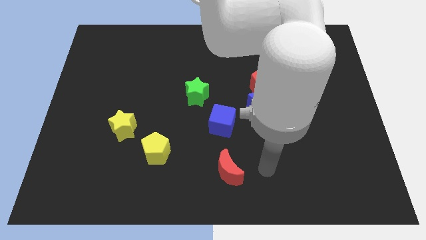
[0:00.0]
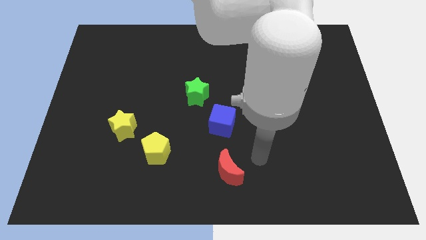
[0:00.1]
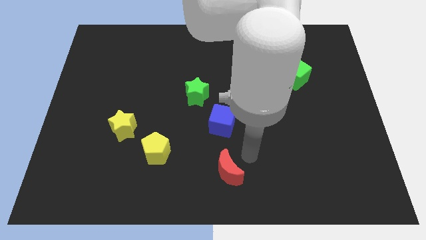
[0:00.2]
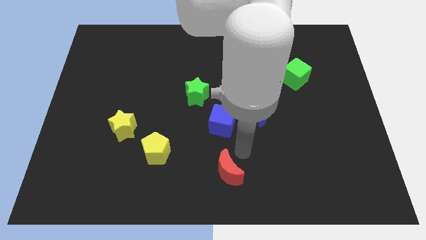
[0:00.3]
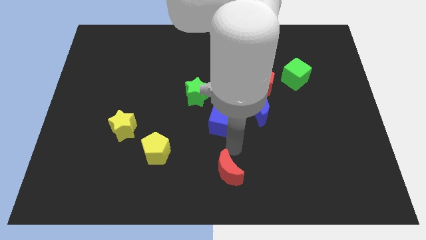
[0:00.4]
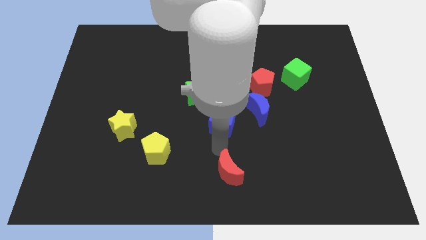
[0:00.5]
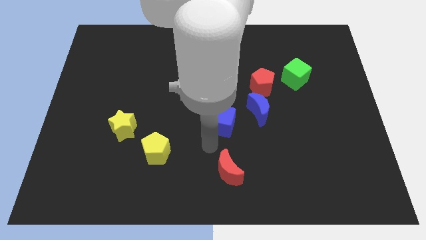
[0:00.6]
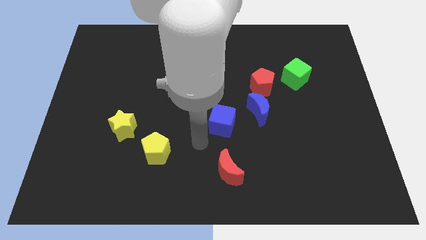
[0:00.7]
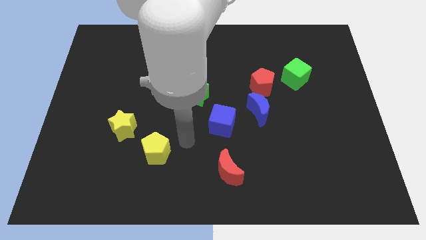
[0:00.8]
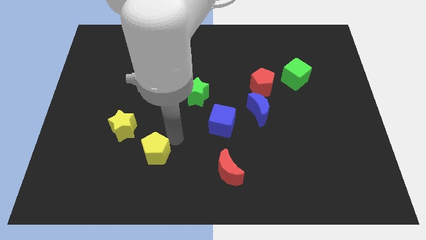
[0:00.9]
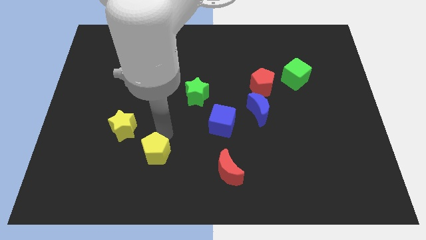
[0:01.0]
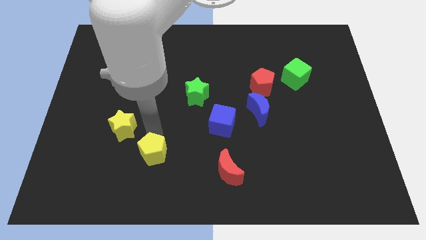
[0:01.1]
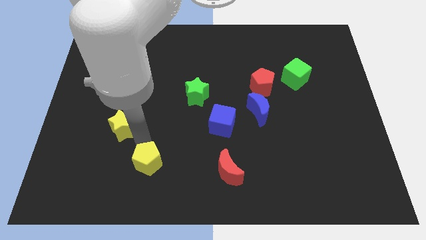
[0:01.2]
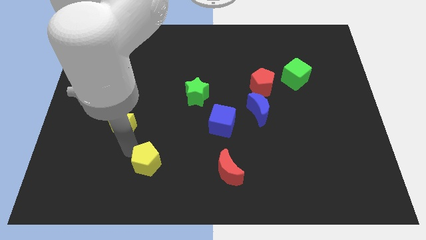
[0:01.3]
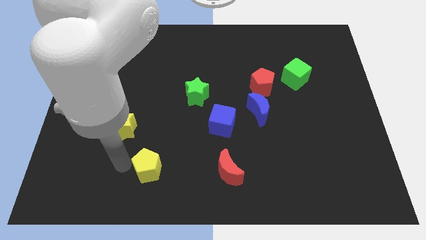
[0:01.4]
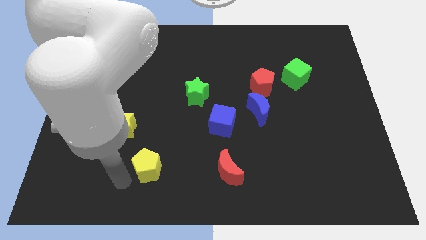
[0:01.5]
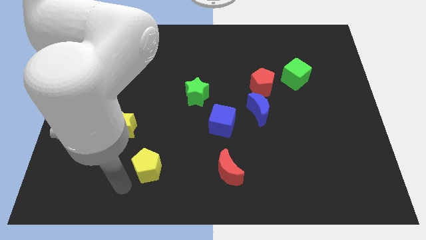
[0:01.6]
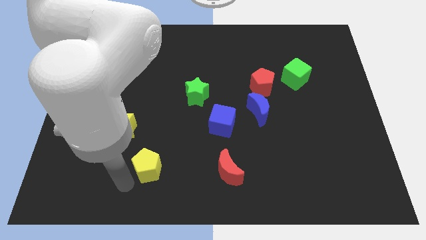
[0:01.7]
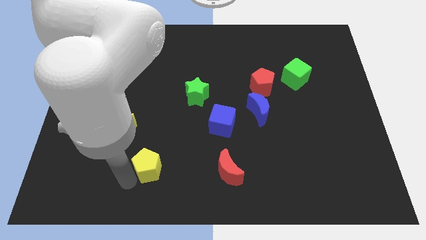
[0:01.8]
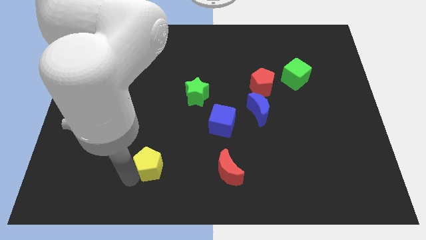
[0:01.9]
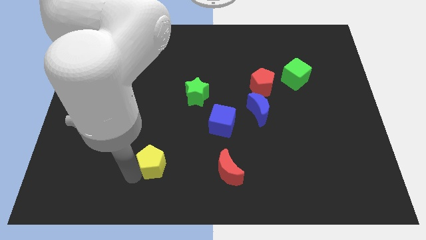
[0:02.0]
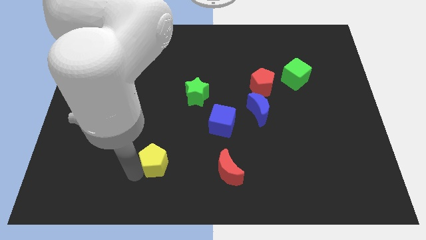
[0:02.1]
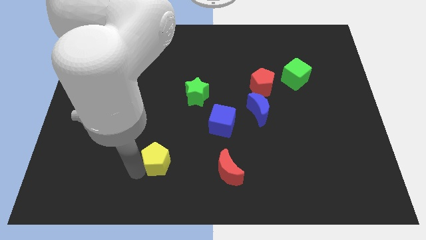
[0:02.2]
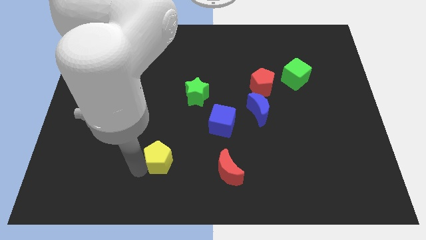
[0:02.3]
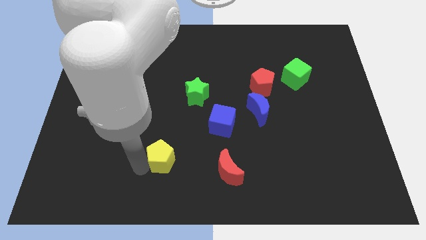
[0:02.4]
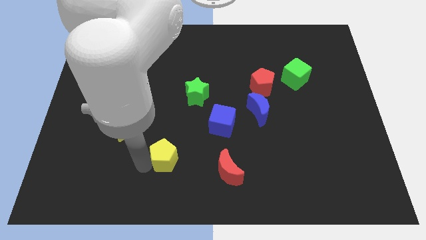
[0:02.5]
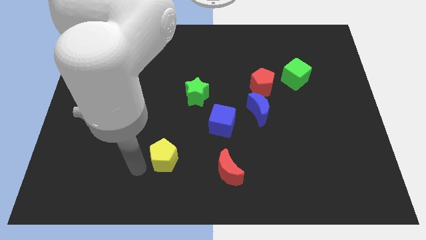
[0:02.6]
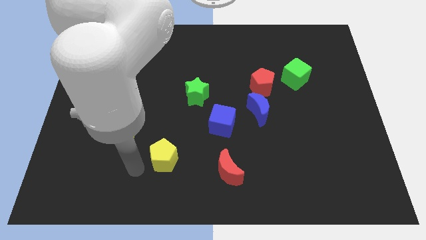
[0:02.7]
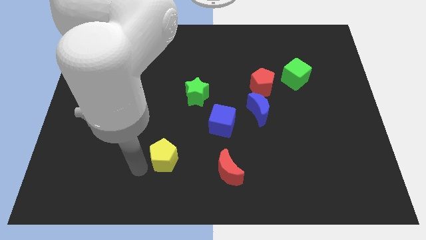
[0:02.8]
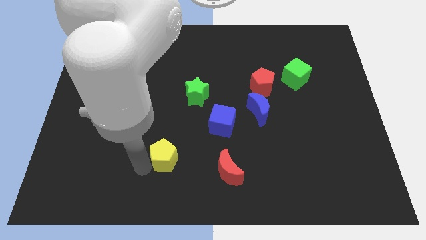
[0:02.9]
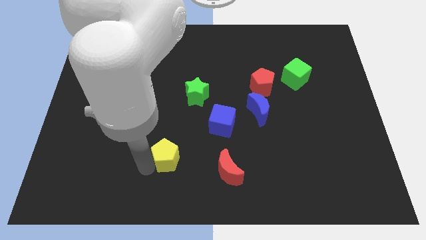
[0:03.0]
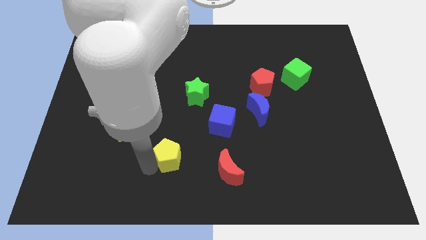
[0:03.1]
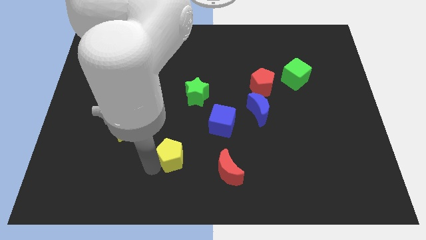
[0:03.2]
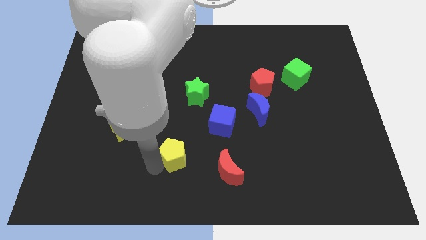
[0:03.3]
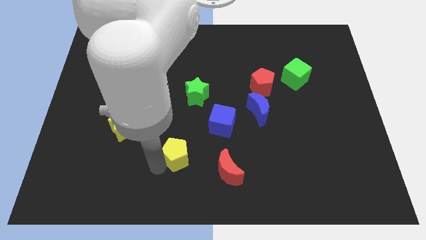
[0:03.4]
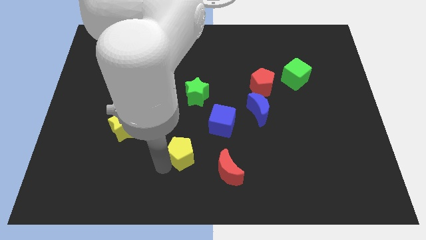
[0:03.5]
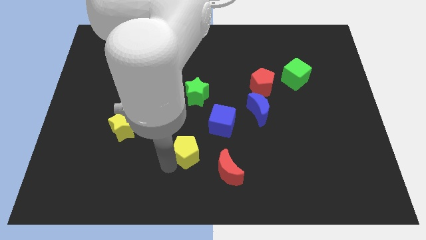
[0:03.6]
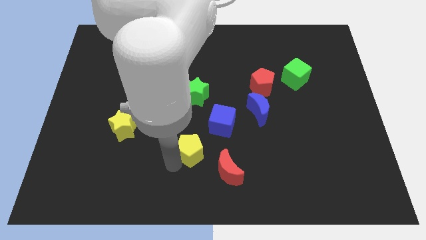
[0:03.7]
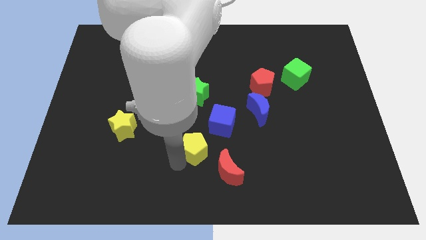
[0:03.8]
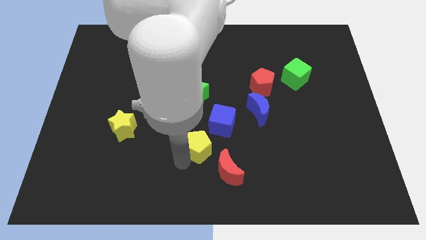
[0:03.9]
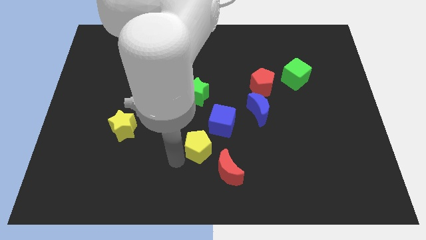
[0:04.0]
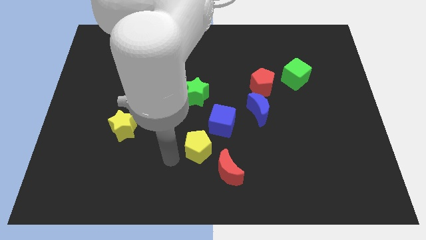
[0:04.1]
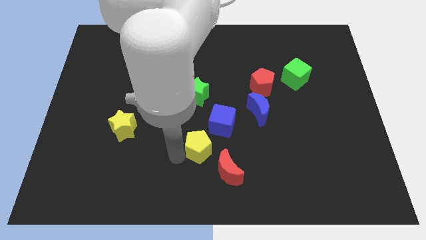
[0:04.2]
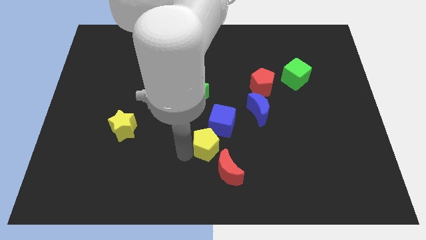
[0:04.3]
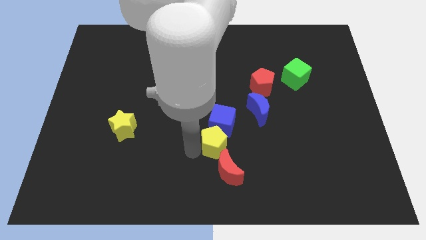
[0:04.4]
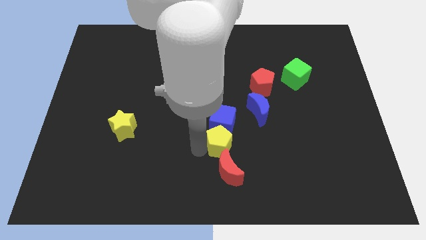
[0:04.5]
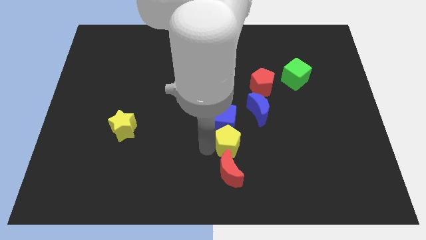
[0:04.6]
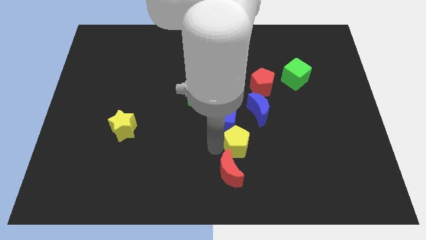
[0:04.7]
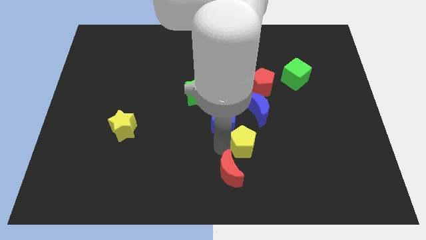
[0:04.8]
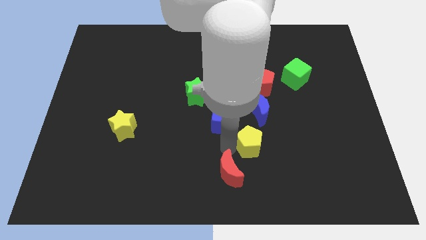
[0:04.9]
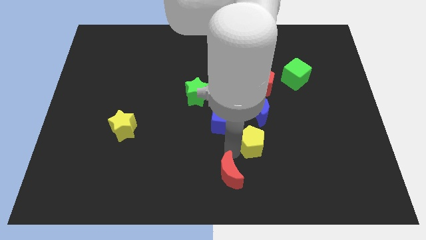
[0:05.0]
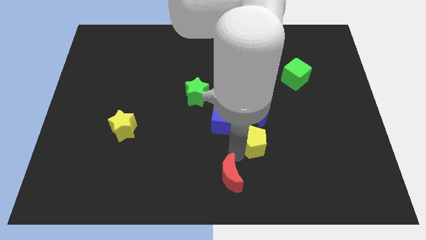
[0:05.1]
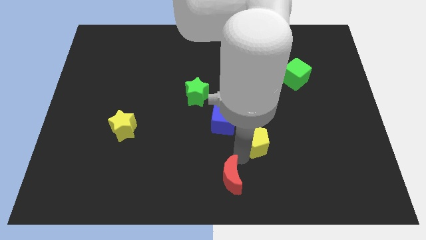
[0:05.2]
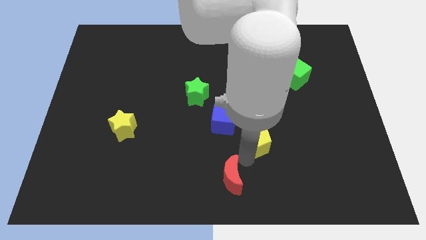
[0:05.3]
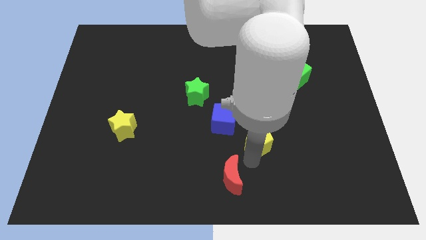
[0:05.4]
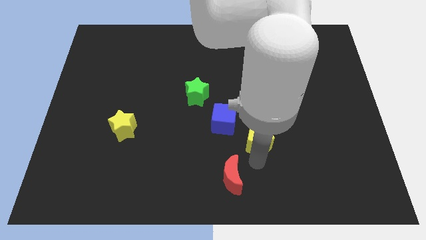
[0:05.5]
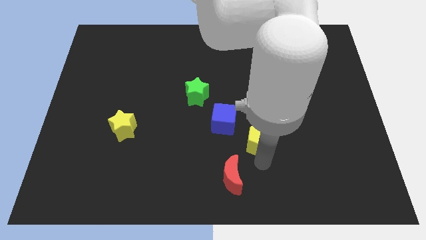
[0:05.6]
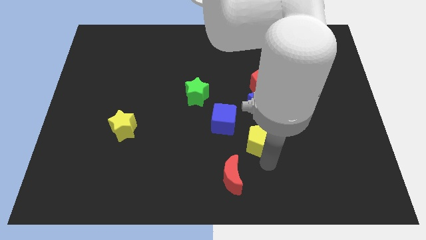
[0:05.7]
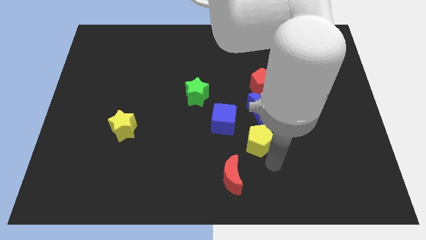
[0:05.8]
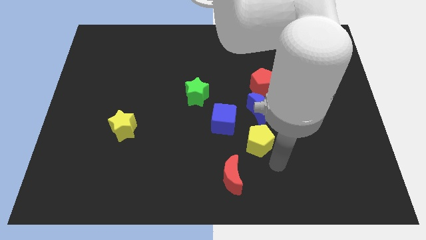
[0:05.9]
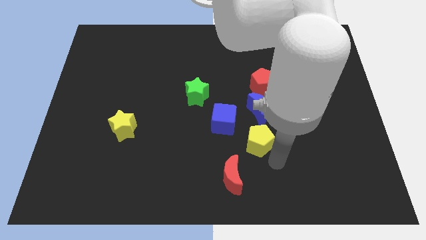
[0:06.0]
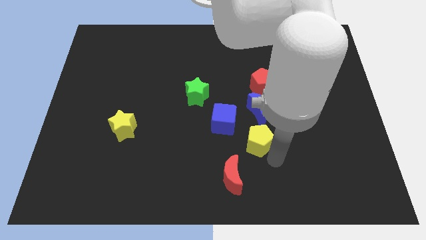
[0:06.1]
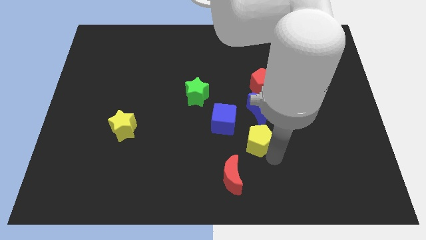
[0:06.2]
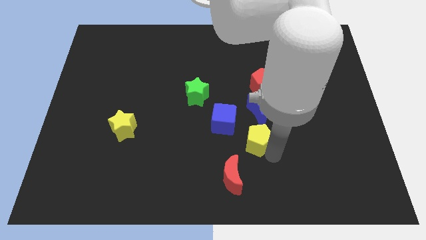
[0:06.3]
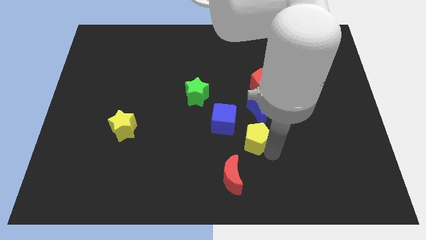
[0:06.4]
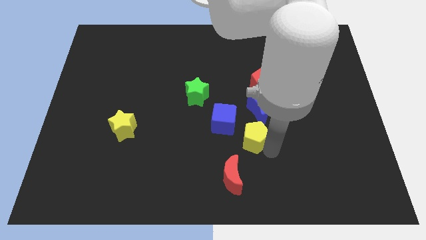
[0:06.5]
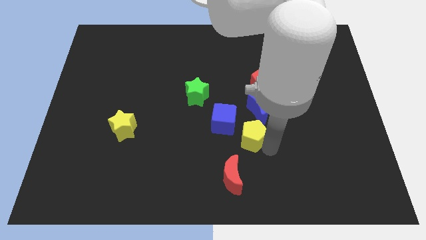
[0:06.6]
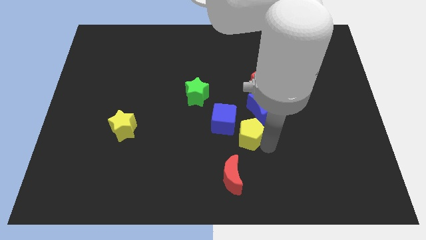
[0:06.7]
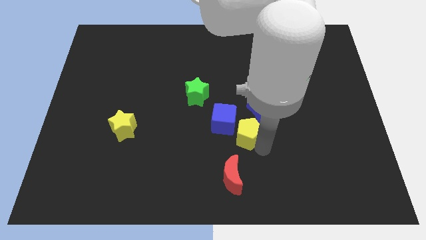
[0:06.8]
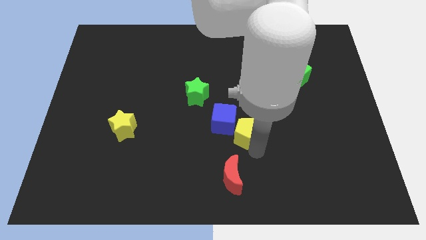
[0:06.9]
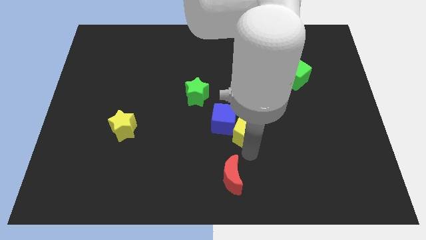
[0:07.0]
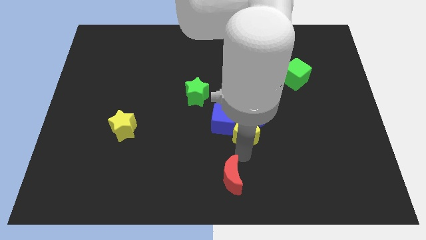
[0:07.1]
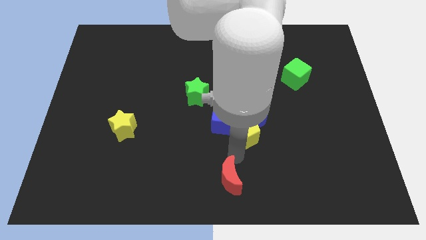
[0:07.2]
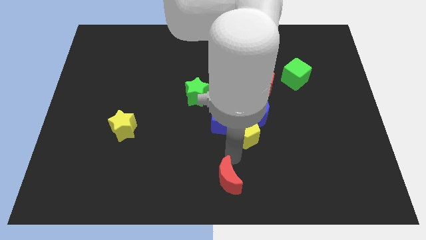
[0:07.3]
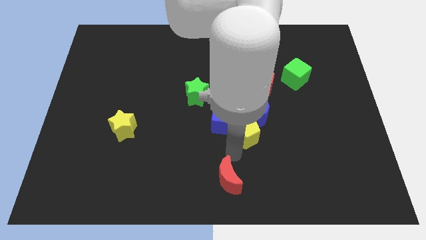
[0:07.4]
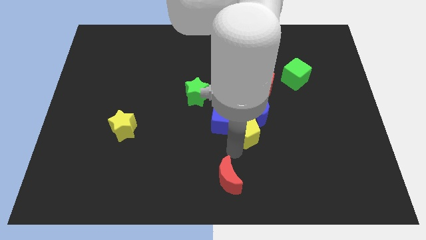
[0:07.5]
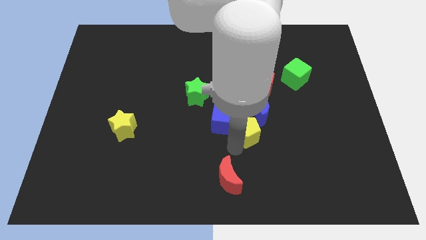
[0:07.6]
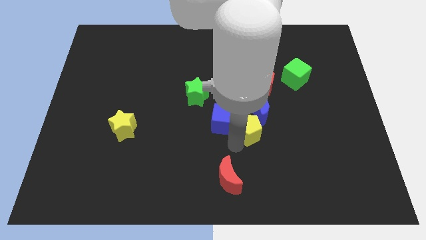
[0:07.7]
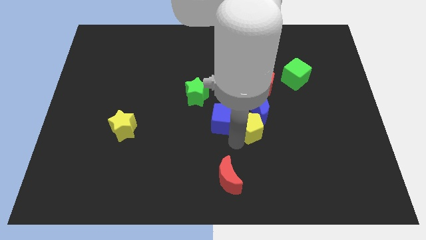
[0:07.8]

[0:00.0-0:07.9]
put the yellow pentagon next to the blue moon
